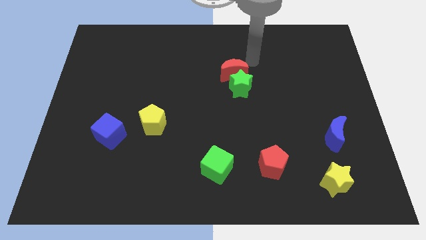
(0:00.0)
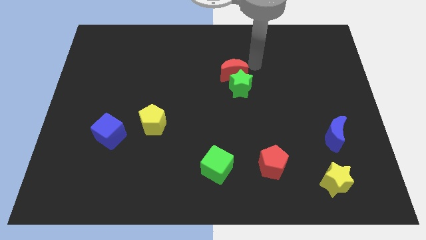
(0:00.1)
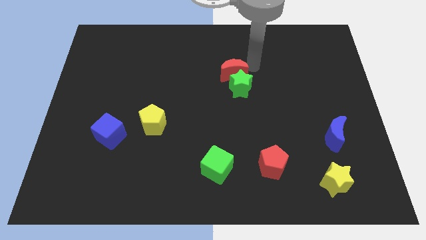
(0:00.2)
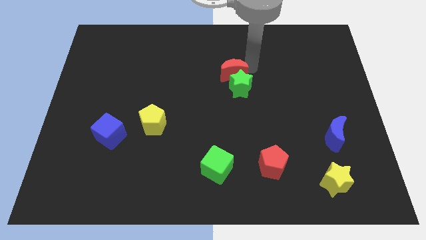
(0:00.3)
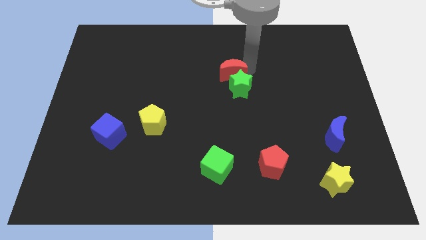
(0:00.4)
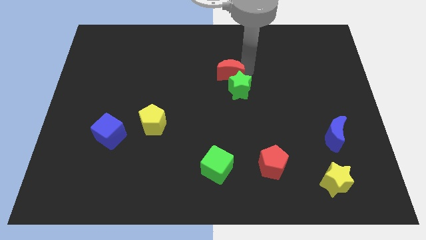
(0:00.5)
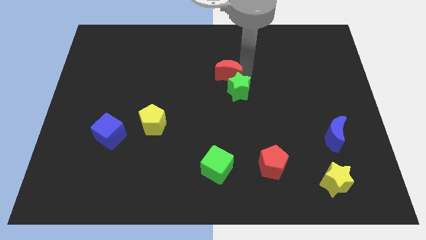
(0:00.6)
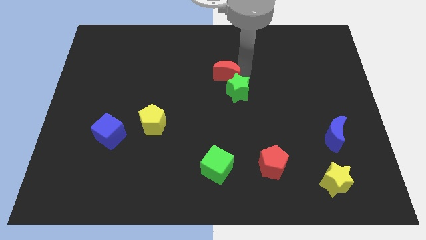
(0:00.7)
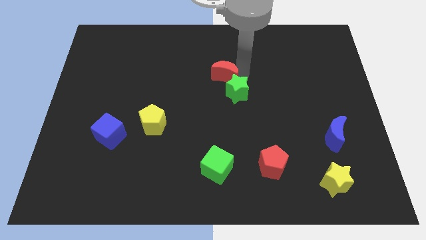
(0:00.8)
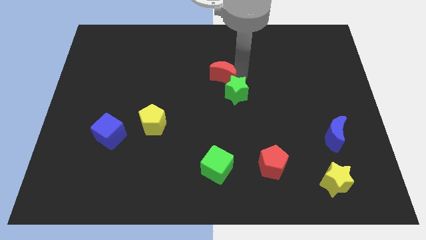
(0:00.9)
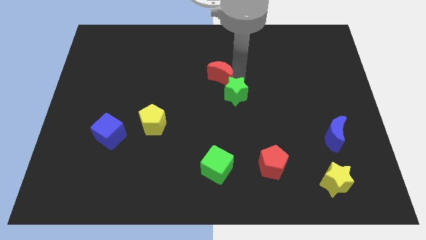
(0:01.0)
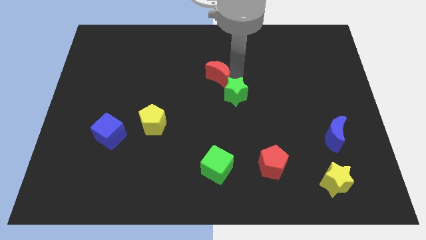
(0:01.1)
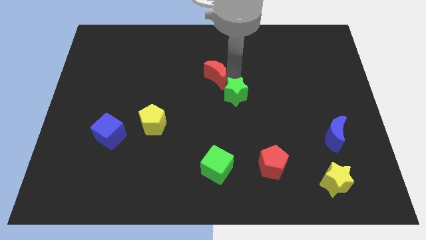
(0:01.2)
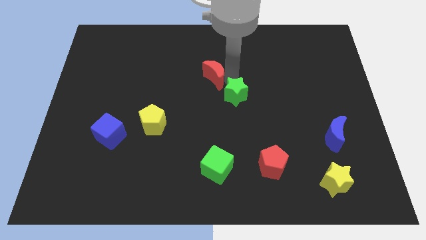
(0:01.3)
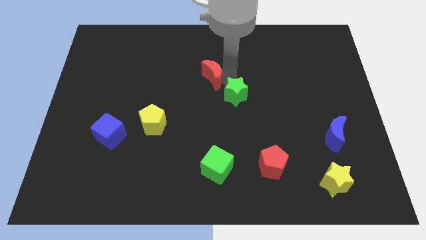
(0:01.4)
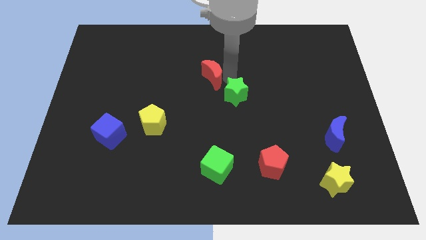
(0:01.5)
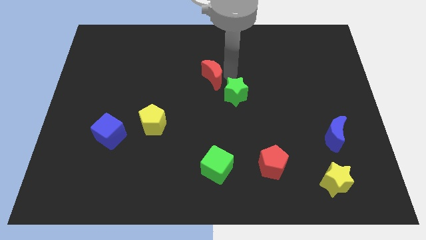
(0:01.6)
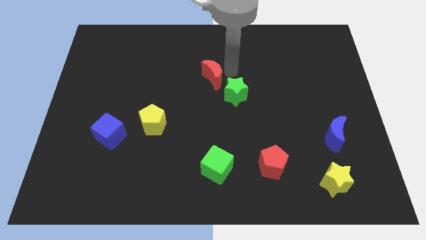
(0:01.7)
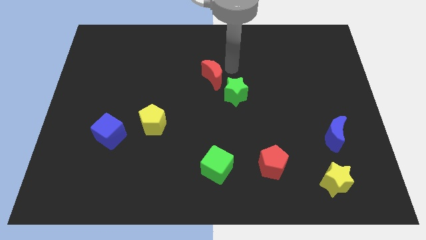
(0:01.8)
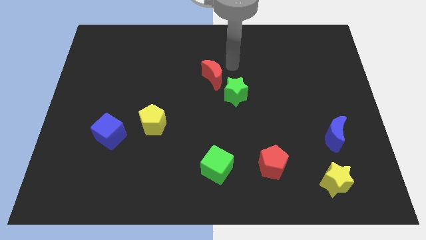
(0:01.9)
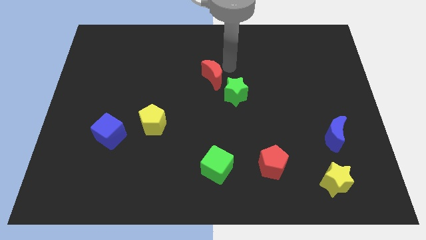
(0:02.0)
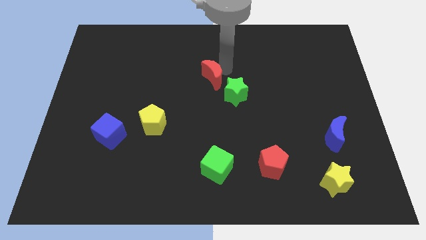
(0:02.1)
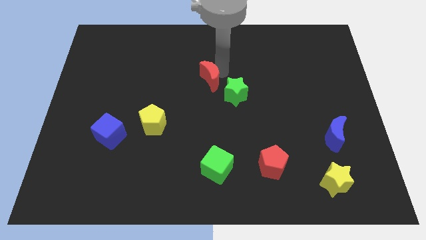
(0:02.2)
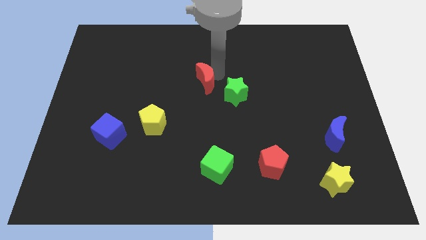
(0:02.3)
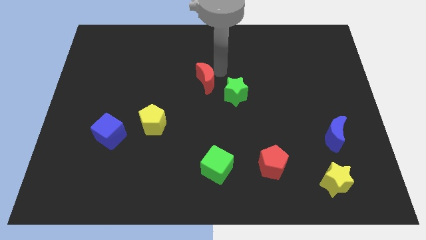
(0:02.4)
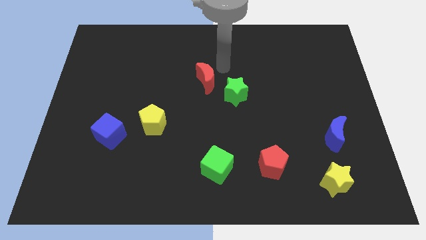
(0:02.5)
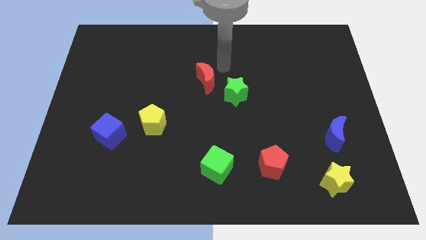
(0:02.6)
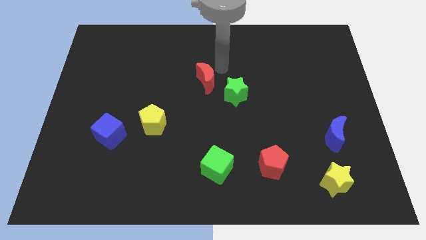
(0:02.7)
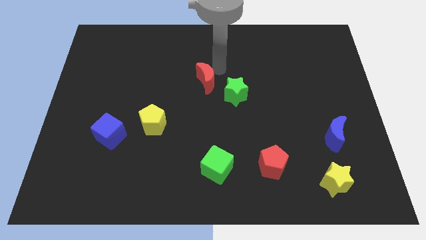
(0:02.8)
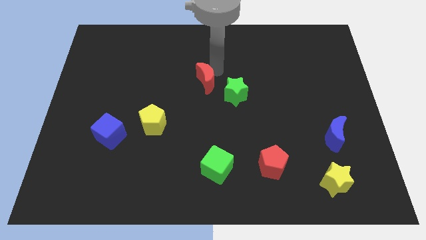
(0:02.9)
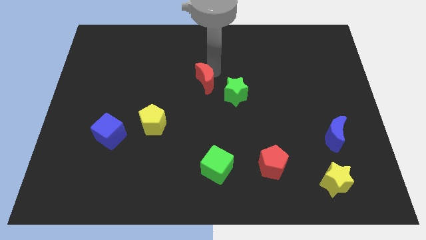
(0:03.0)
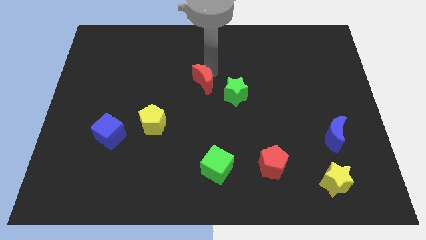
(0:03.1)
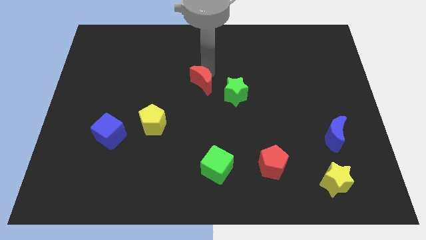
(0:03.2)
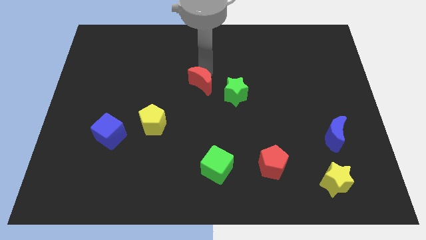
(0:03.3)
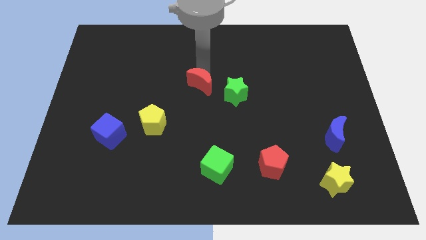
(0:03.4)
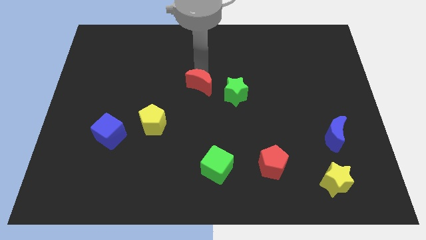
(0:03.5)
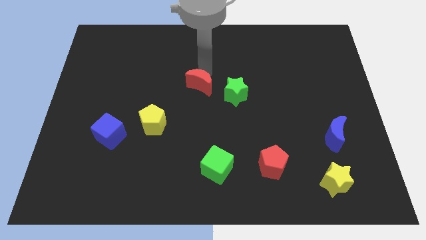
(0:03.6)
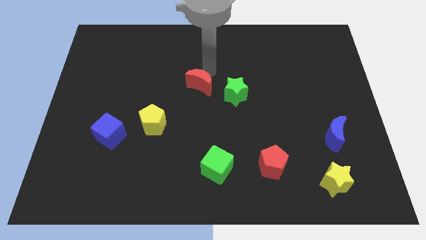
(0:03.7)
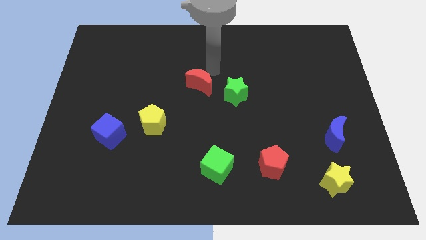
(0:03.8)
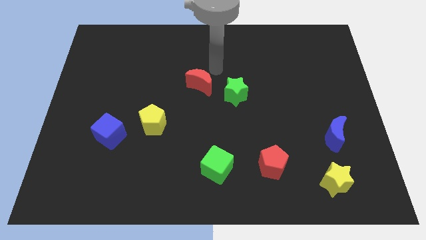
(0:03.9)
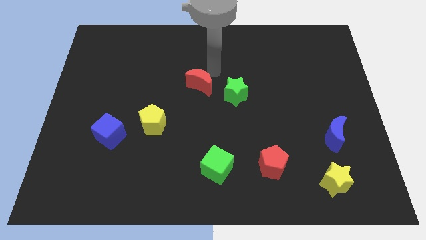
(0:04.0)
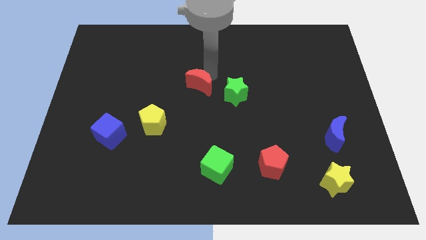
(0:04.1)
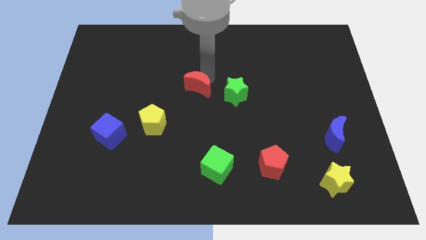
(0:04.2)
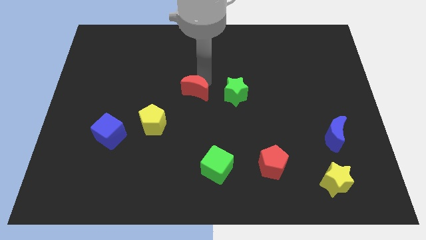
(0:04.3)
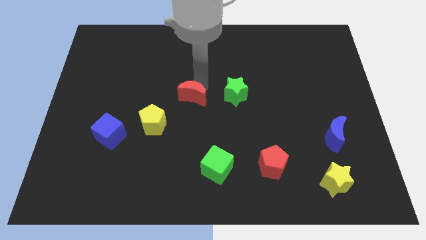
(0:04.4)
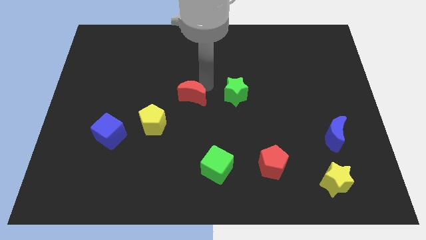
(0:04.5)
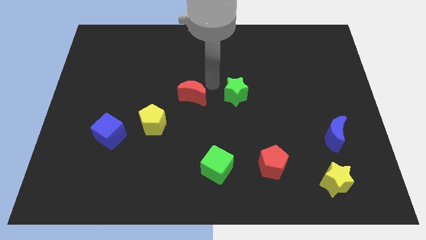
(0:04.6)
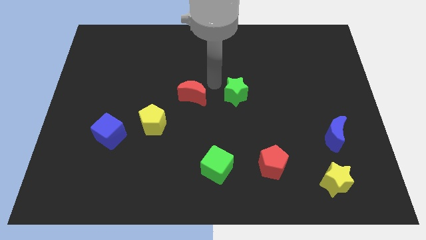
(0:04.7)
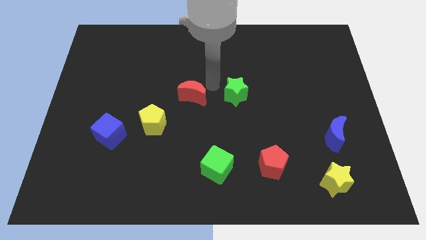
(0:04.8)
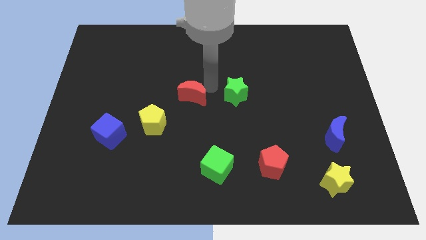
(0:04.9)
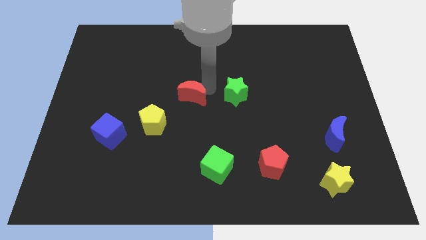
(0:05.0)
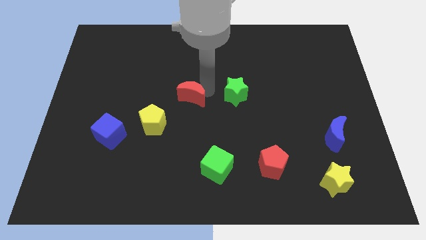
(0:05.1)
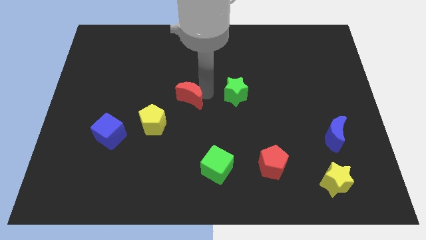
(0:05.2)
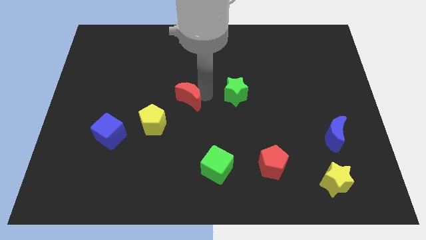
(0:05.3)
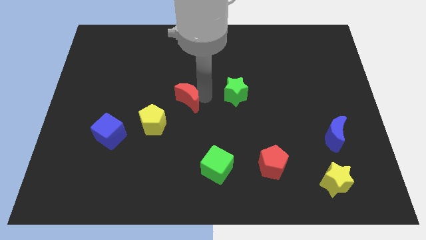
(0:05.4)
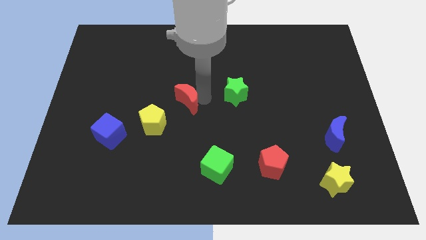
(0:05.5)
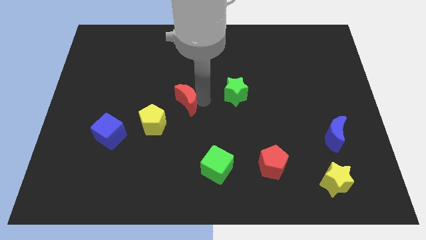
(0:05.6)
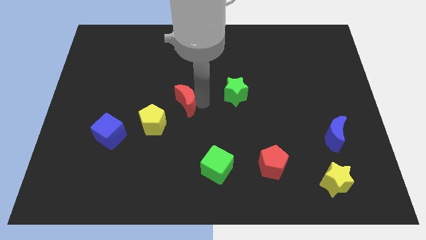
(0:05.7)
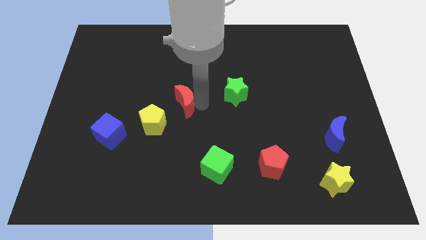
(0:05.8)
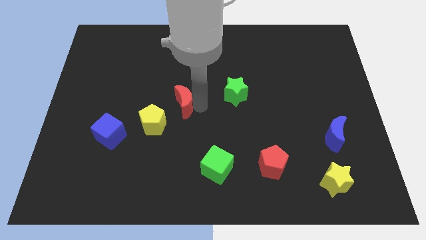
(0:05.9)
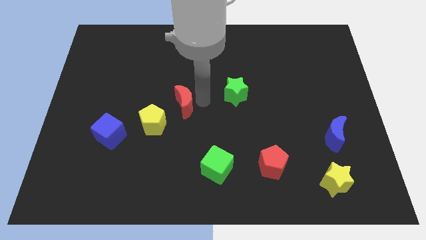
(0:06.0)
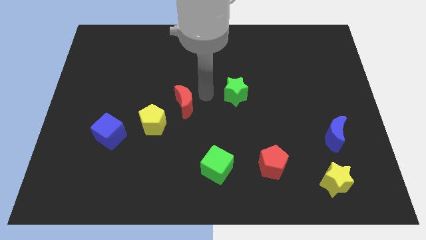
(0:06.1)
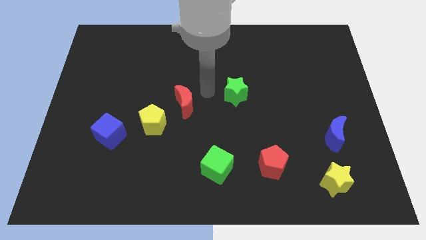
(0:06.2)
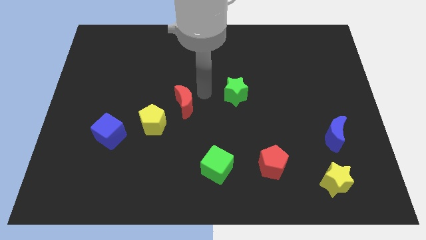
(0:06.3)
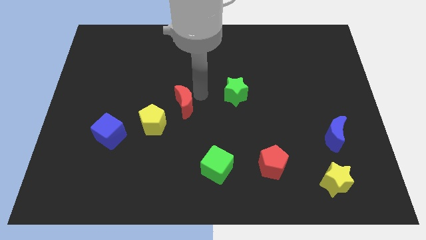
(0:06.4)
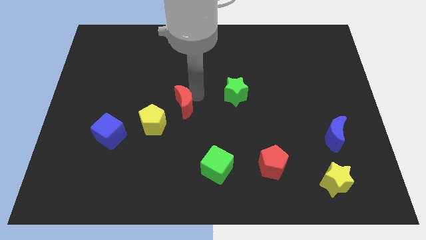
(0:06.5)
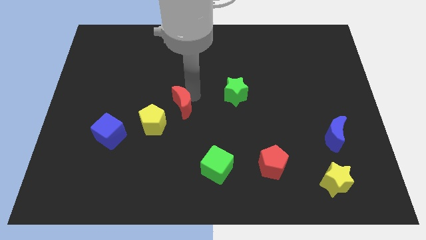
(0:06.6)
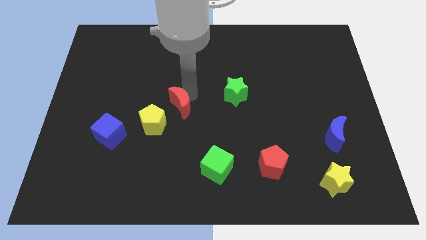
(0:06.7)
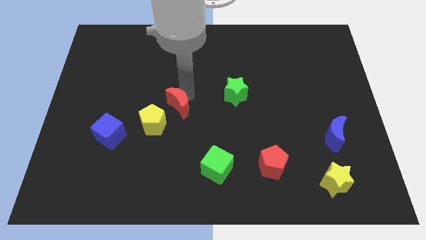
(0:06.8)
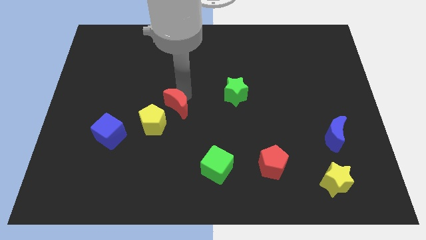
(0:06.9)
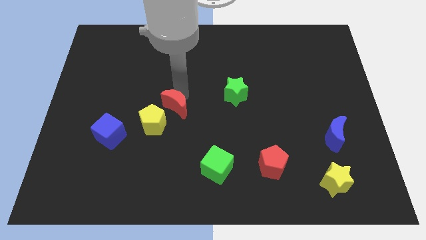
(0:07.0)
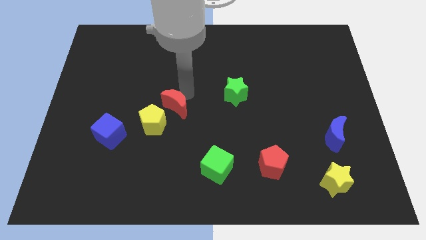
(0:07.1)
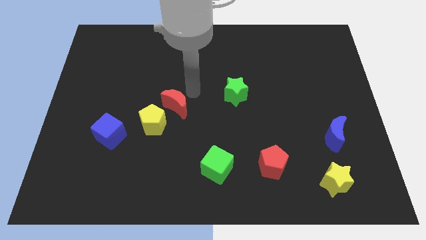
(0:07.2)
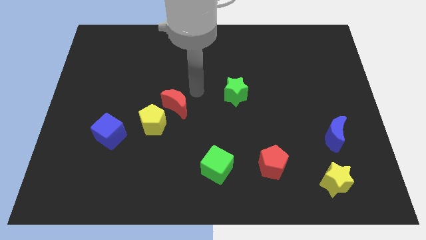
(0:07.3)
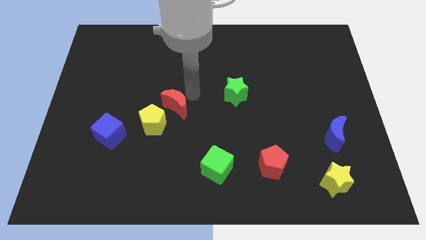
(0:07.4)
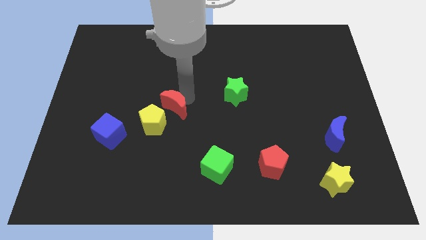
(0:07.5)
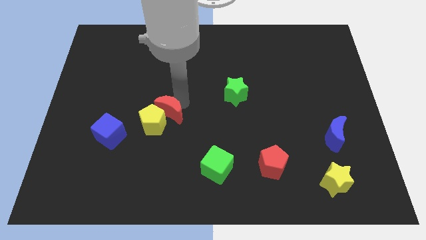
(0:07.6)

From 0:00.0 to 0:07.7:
put the red moon next to the yellow pentagon

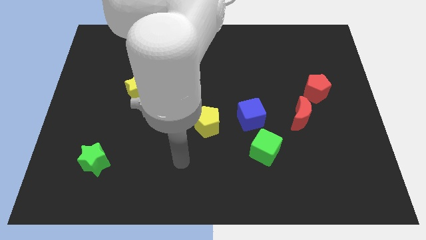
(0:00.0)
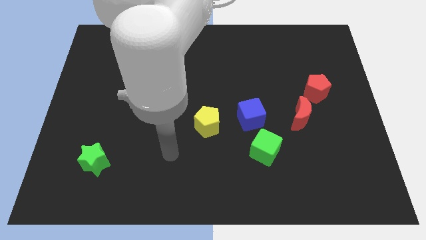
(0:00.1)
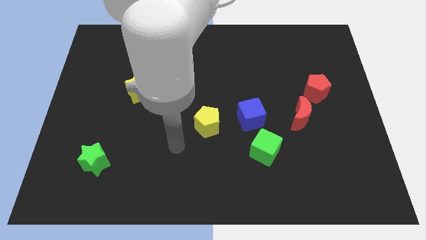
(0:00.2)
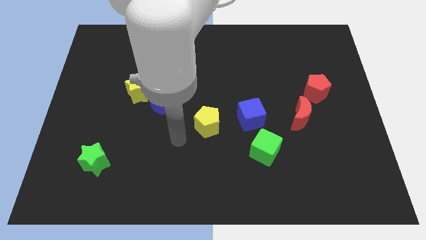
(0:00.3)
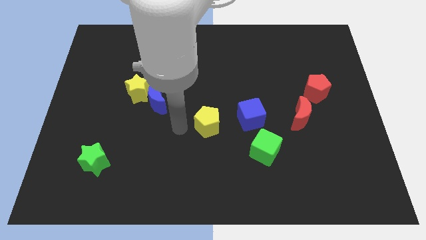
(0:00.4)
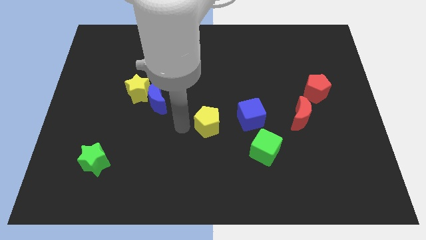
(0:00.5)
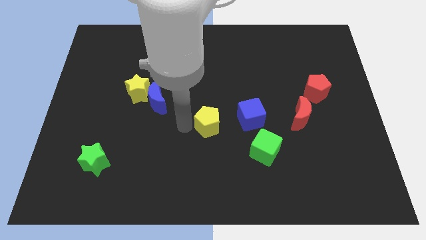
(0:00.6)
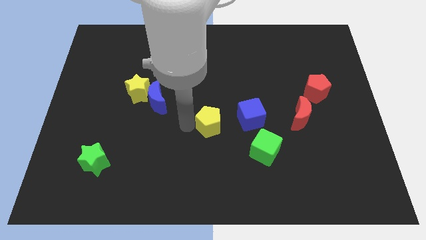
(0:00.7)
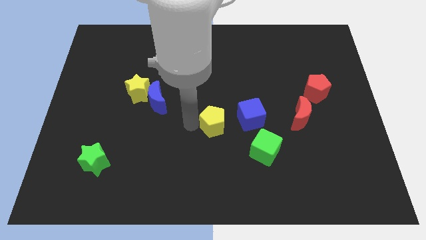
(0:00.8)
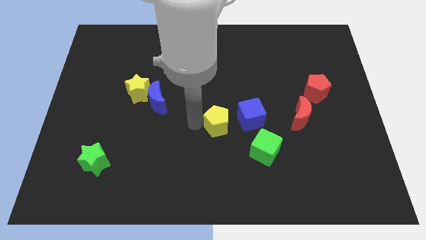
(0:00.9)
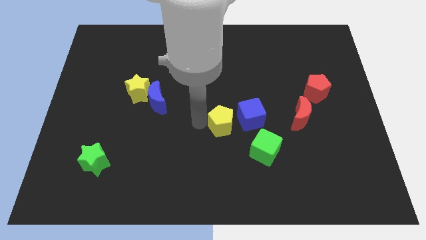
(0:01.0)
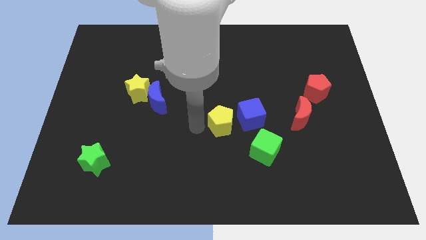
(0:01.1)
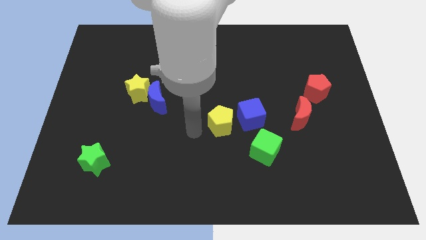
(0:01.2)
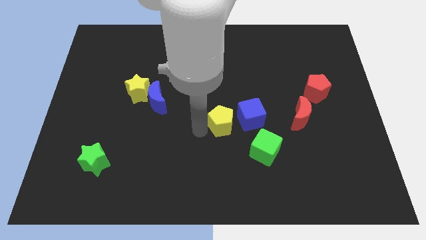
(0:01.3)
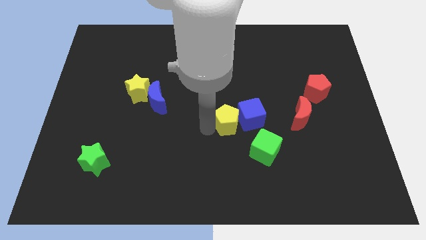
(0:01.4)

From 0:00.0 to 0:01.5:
put the yellow pentagon next to the blue cube
